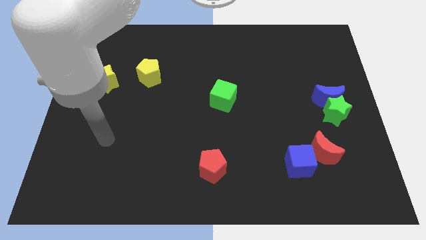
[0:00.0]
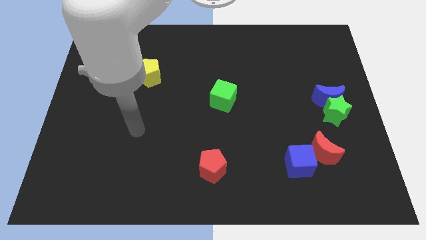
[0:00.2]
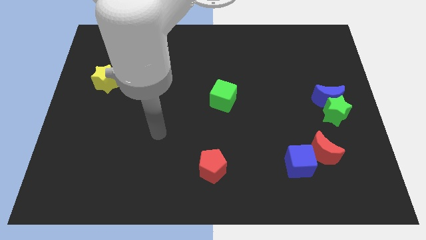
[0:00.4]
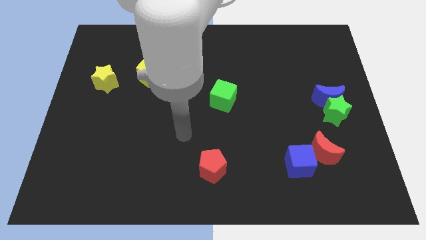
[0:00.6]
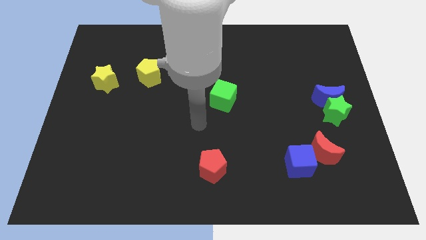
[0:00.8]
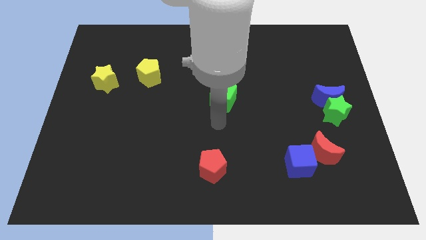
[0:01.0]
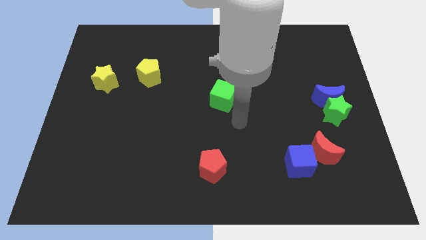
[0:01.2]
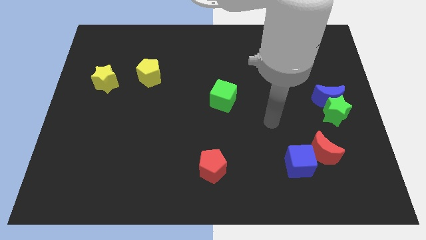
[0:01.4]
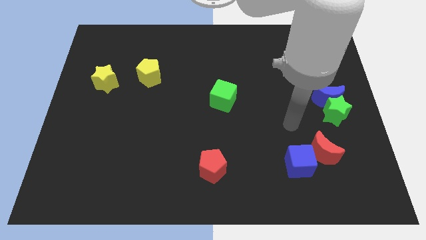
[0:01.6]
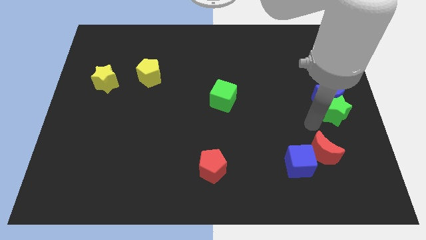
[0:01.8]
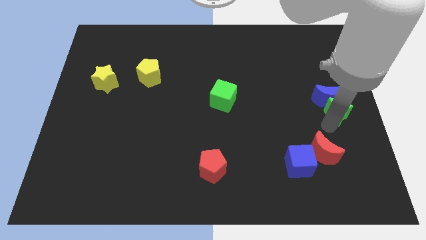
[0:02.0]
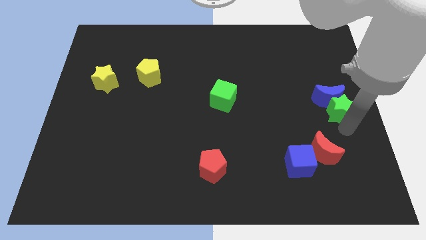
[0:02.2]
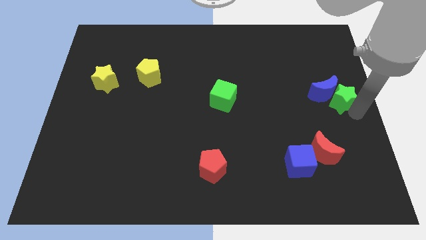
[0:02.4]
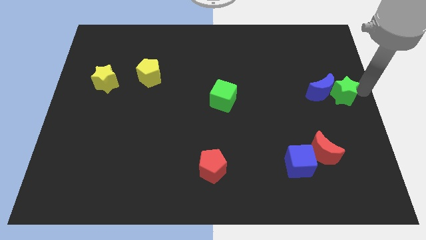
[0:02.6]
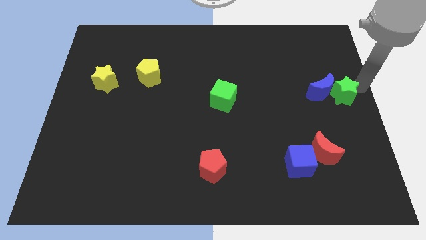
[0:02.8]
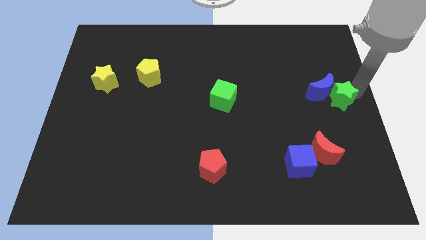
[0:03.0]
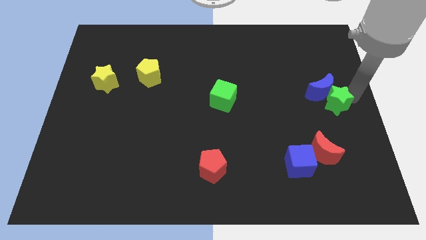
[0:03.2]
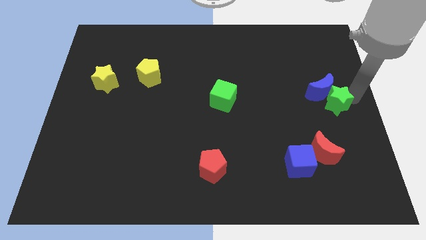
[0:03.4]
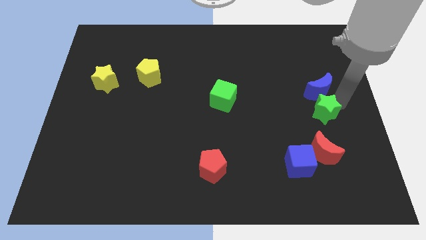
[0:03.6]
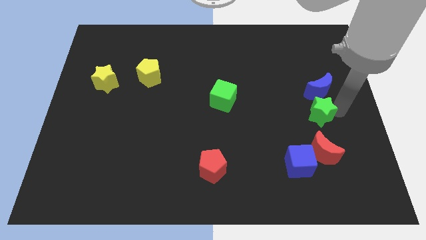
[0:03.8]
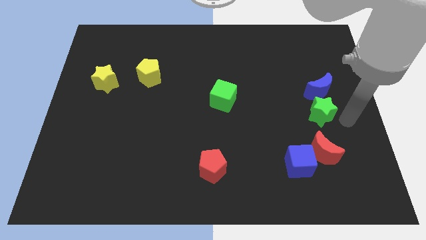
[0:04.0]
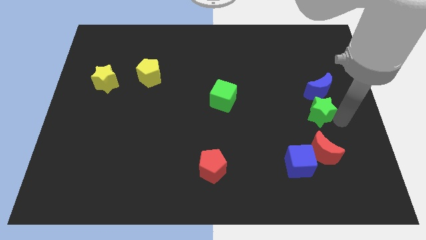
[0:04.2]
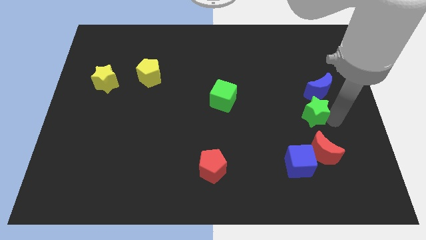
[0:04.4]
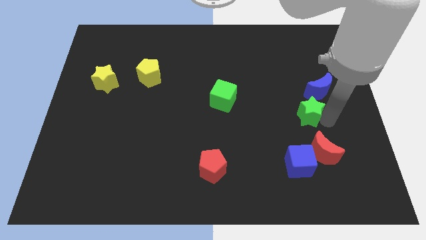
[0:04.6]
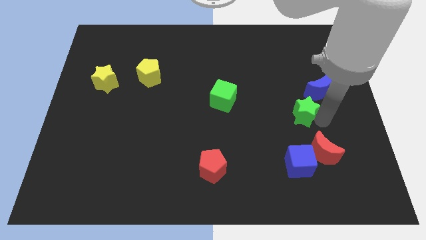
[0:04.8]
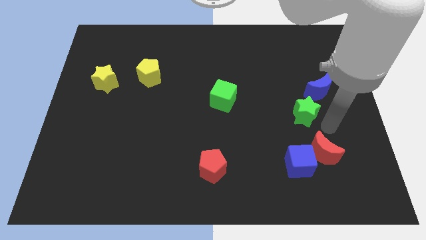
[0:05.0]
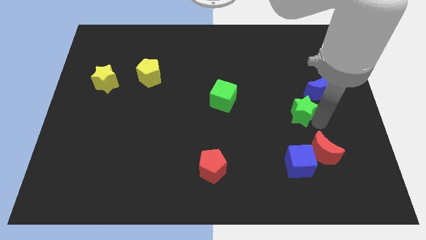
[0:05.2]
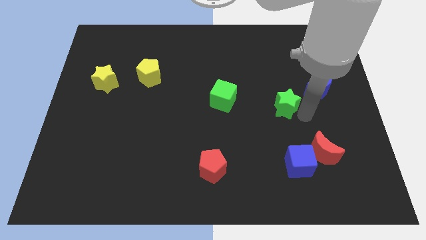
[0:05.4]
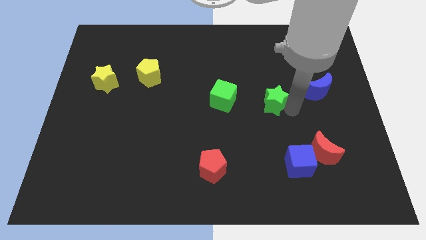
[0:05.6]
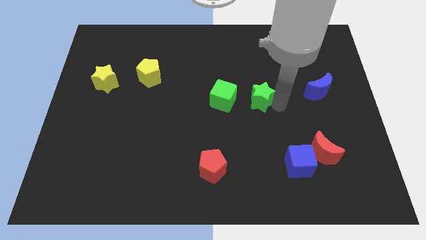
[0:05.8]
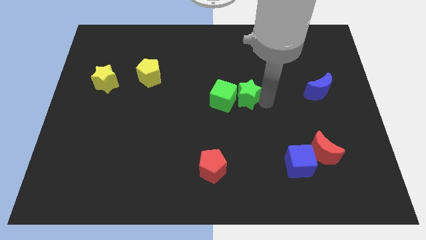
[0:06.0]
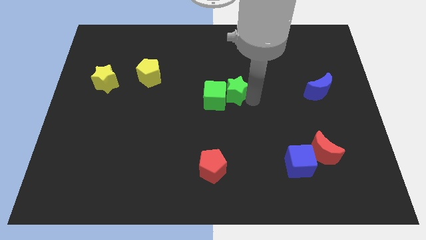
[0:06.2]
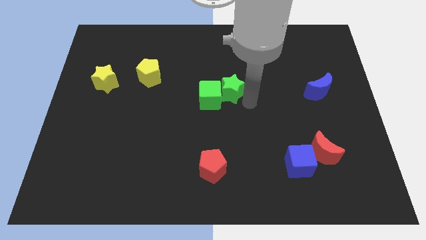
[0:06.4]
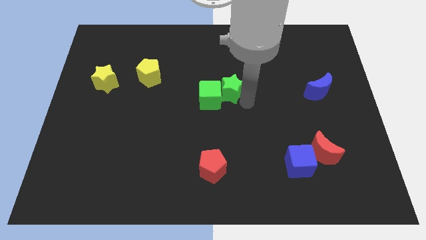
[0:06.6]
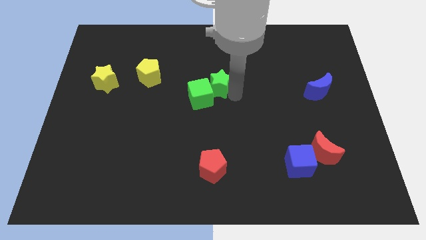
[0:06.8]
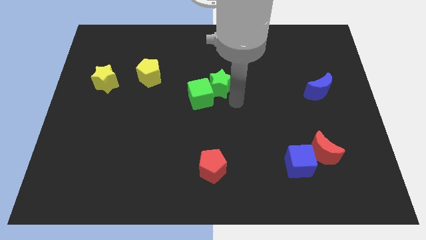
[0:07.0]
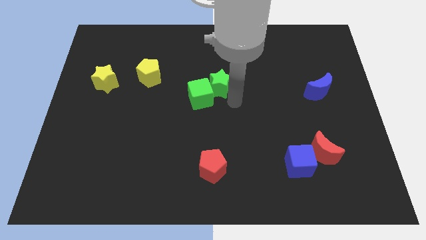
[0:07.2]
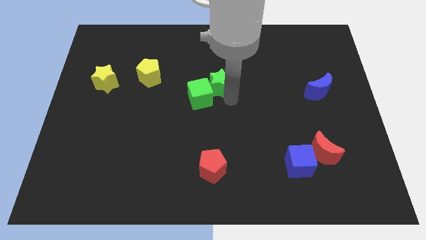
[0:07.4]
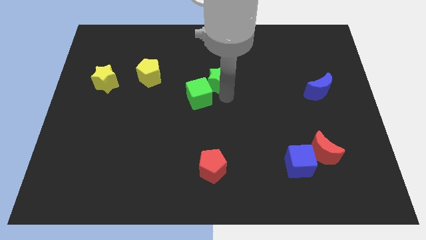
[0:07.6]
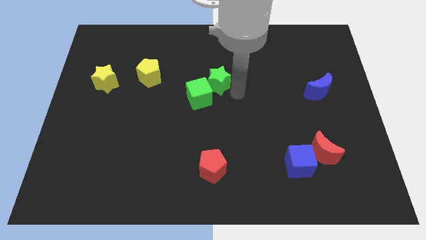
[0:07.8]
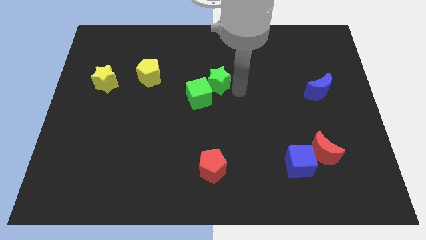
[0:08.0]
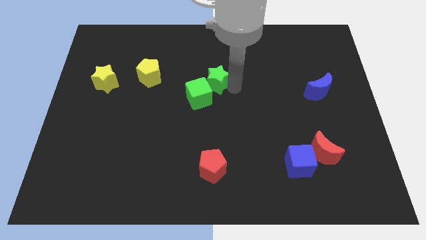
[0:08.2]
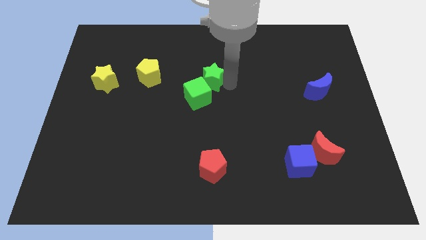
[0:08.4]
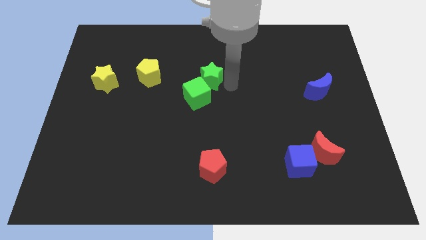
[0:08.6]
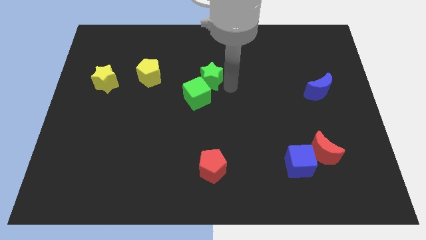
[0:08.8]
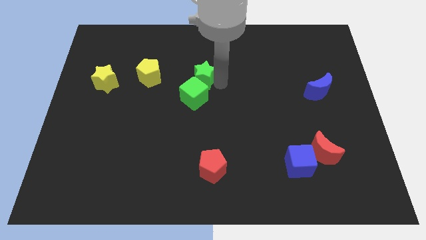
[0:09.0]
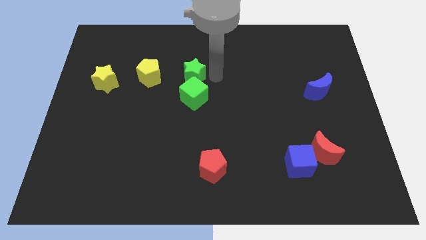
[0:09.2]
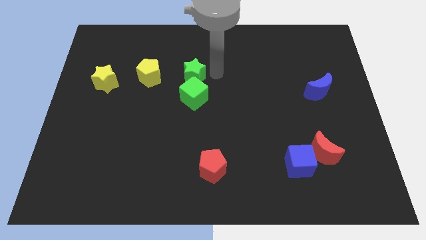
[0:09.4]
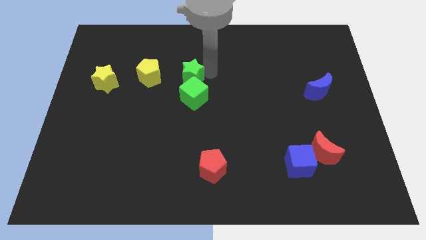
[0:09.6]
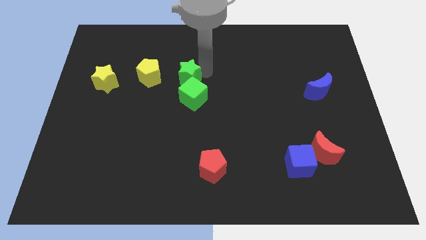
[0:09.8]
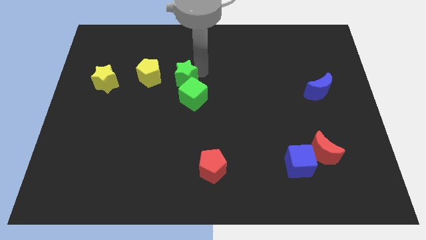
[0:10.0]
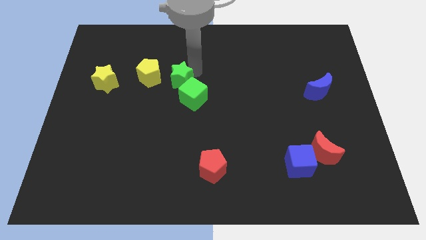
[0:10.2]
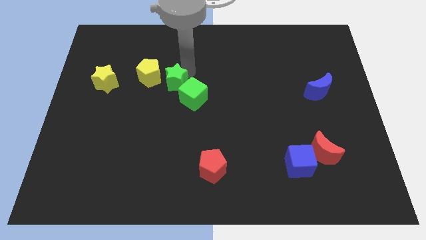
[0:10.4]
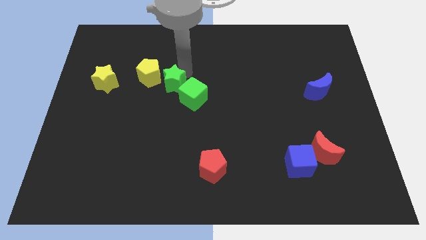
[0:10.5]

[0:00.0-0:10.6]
push the green star close to the yellow pentagon

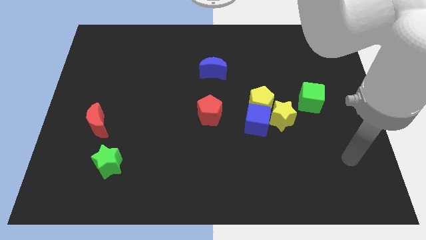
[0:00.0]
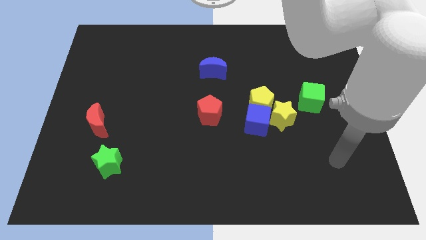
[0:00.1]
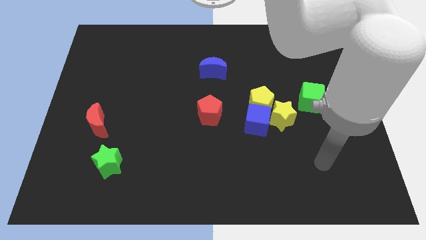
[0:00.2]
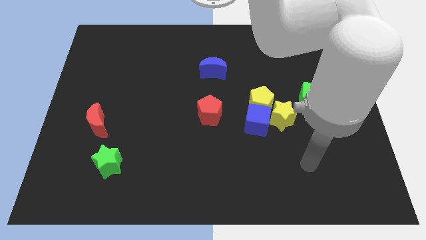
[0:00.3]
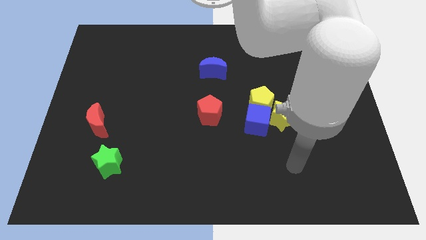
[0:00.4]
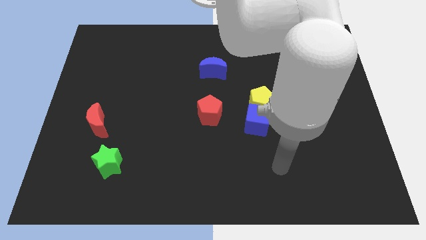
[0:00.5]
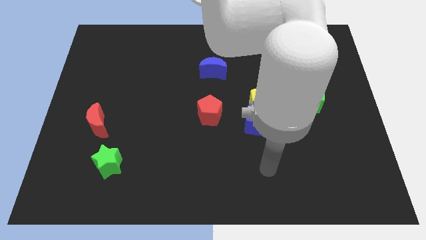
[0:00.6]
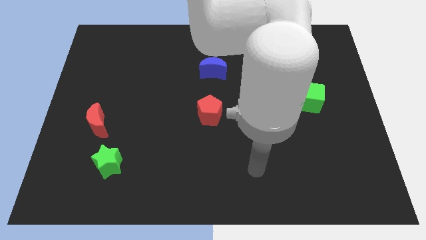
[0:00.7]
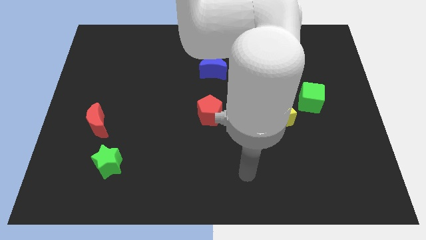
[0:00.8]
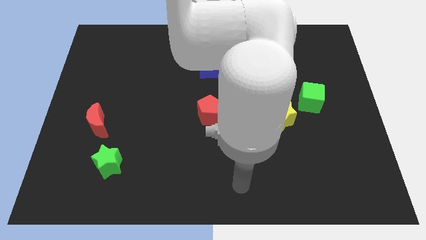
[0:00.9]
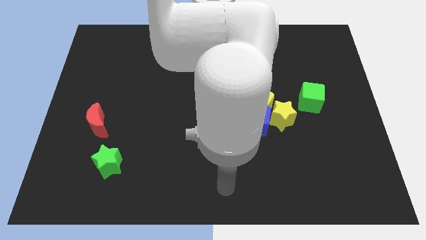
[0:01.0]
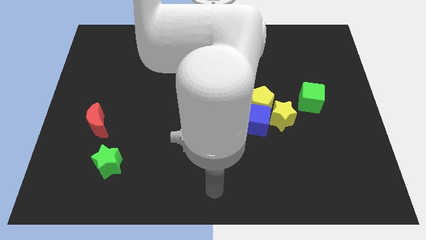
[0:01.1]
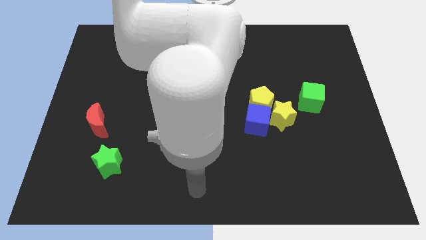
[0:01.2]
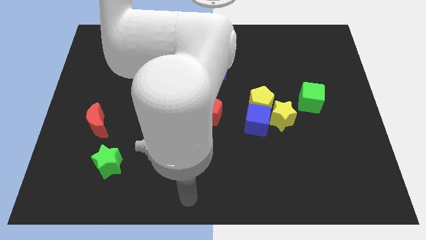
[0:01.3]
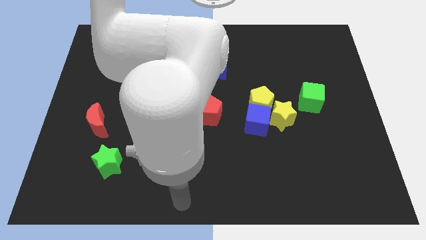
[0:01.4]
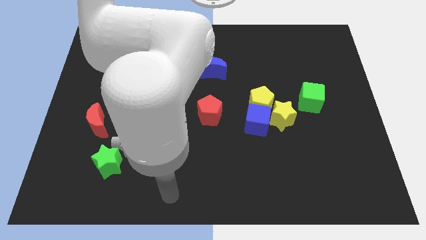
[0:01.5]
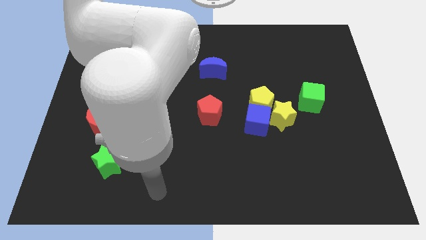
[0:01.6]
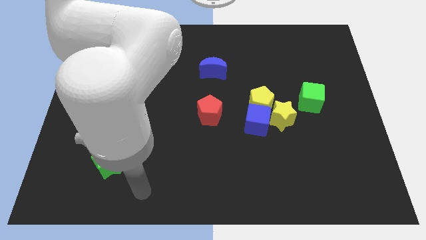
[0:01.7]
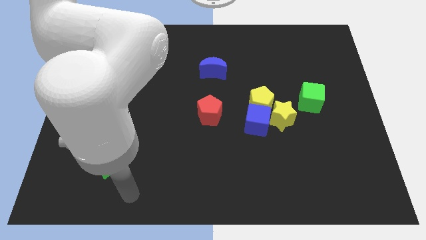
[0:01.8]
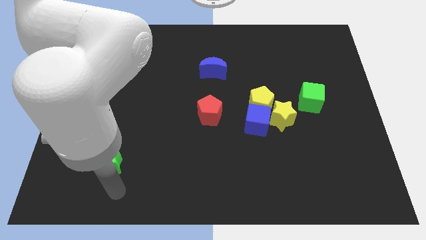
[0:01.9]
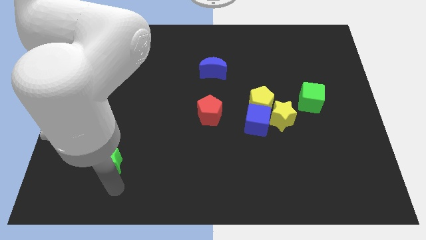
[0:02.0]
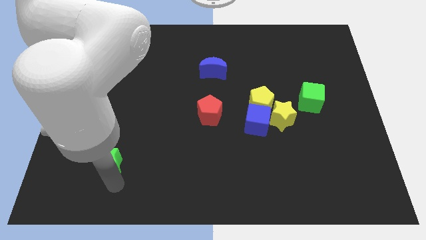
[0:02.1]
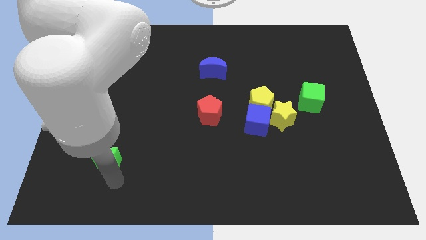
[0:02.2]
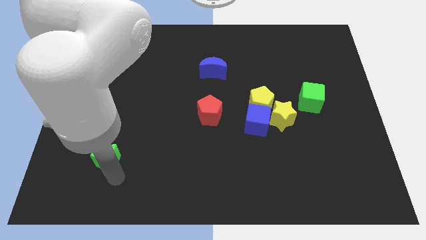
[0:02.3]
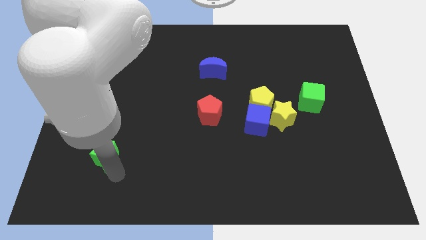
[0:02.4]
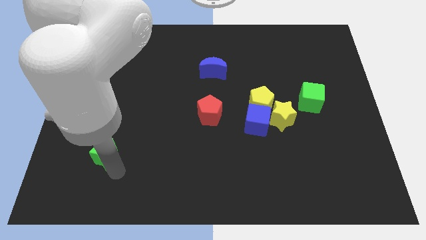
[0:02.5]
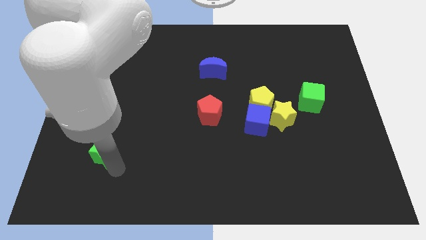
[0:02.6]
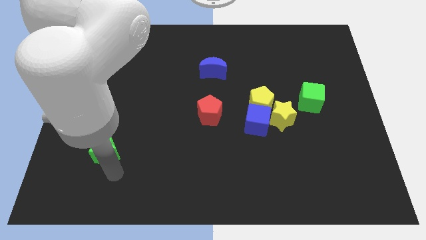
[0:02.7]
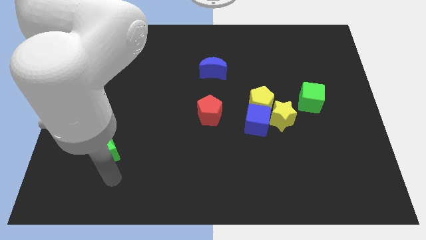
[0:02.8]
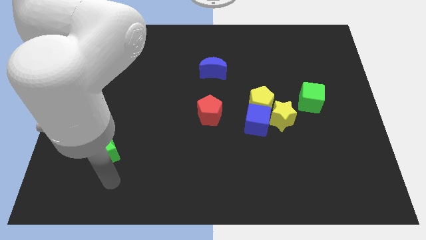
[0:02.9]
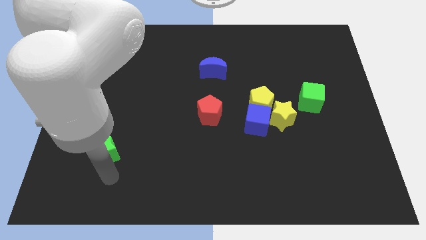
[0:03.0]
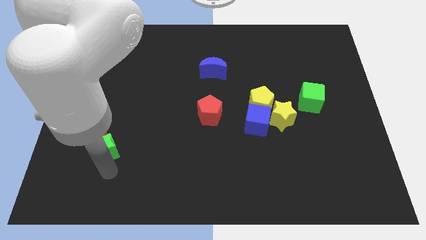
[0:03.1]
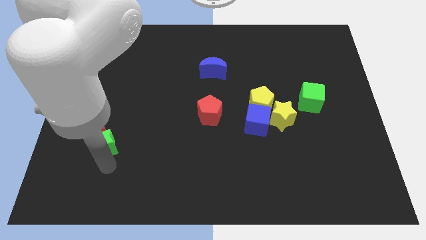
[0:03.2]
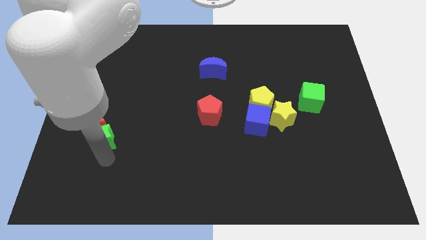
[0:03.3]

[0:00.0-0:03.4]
move the green star close to the red moon
